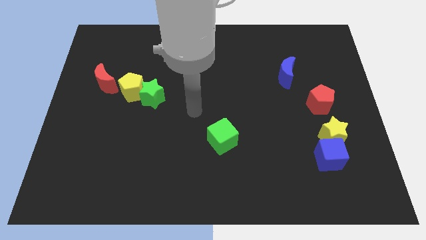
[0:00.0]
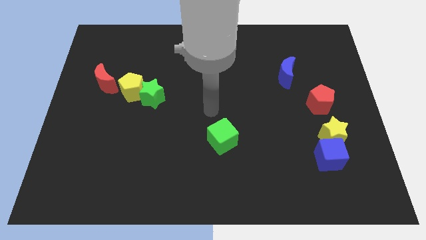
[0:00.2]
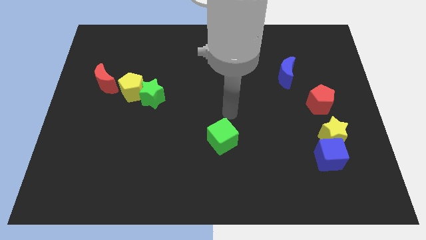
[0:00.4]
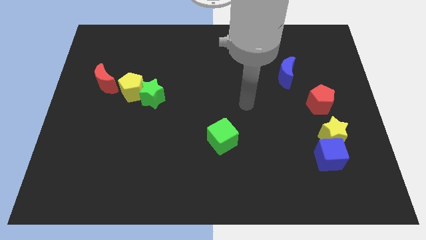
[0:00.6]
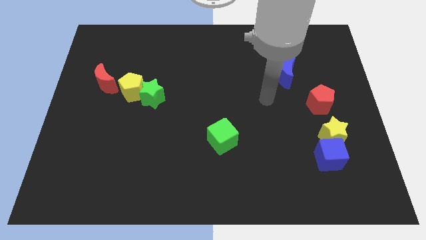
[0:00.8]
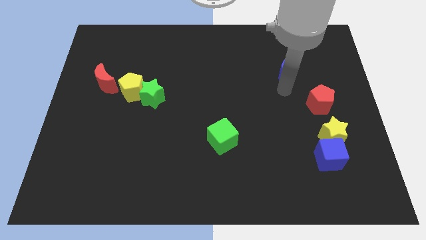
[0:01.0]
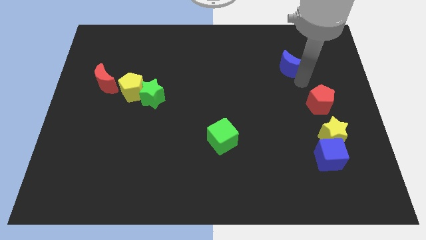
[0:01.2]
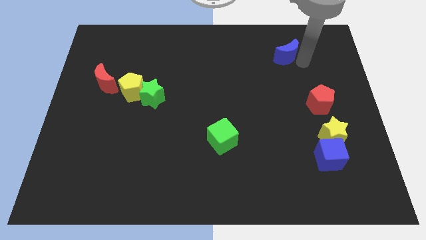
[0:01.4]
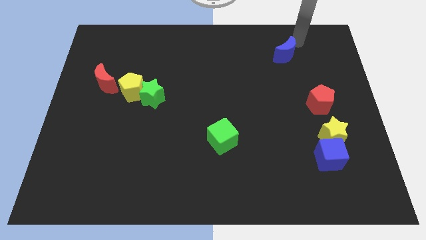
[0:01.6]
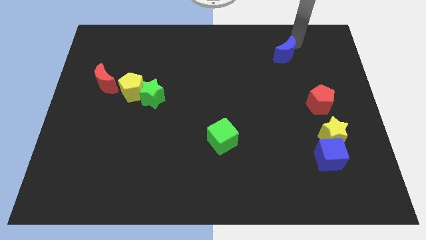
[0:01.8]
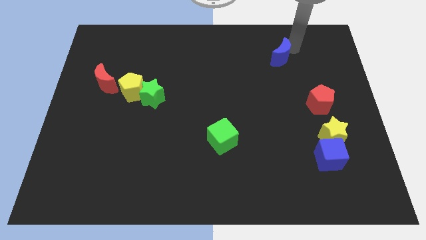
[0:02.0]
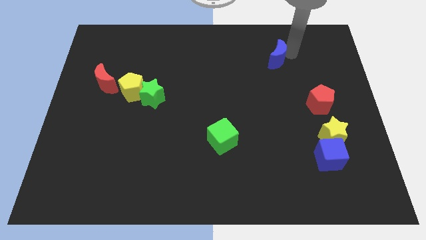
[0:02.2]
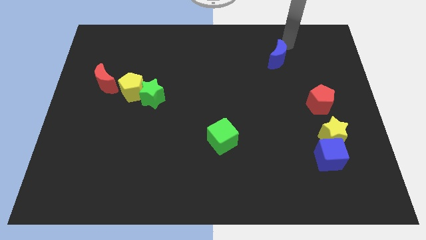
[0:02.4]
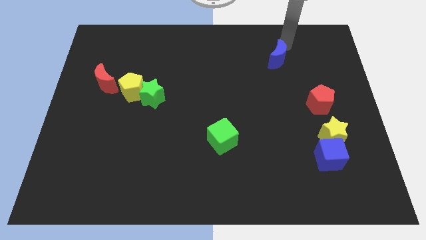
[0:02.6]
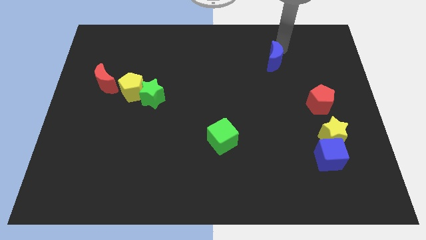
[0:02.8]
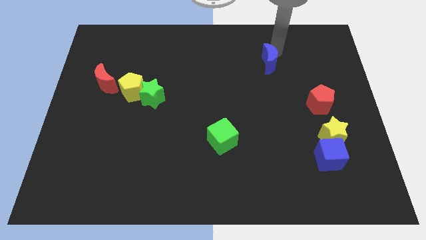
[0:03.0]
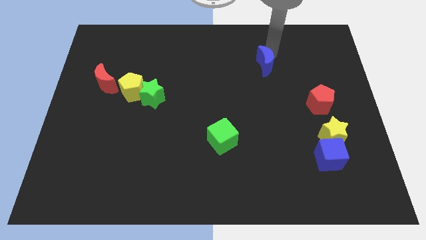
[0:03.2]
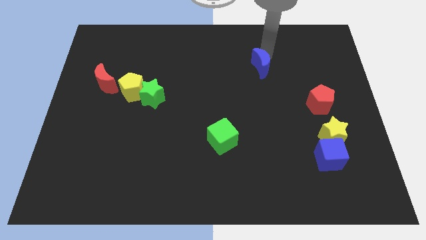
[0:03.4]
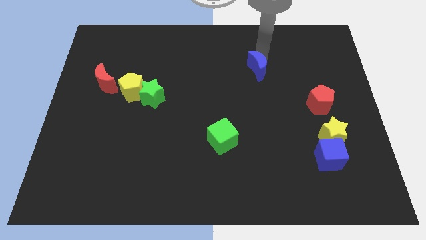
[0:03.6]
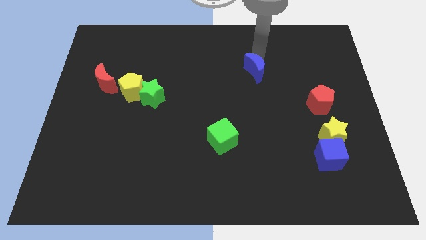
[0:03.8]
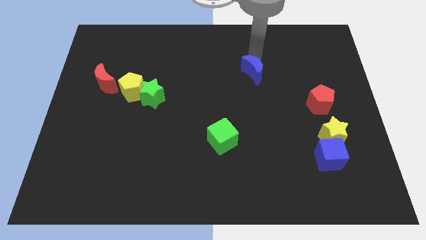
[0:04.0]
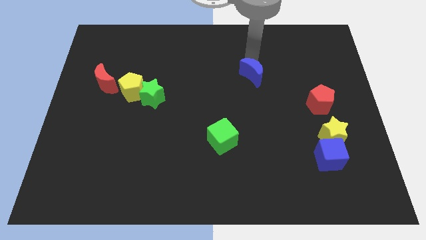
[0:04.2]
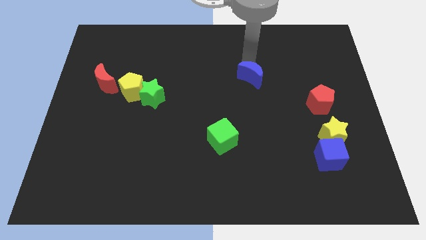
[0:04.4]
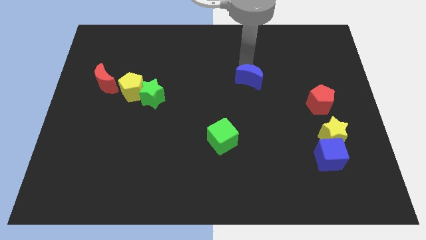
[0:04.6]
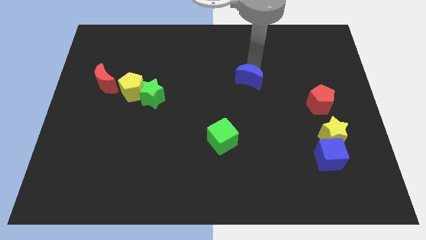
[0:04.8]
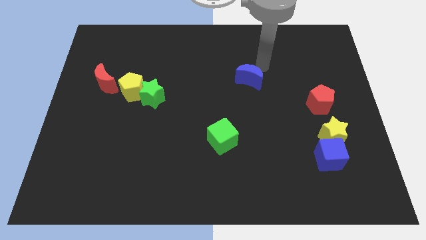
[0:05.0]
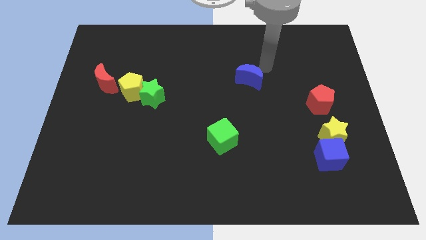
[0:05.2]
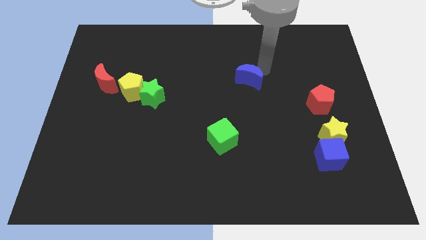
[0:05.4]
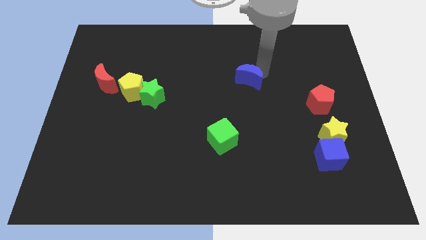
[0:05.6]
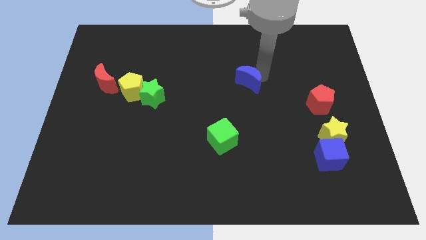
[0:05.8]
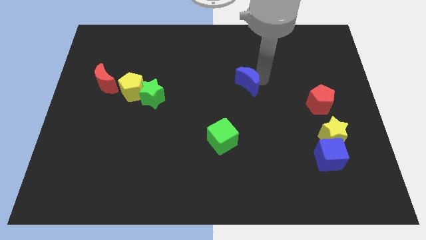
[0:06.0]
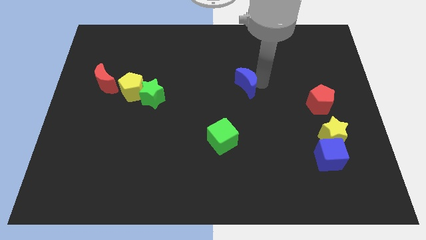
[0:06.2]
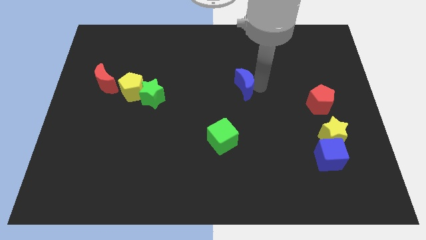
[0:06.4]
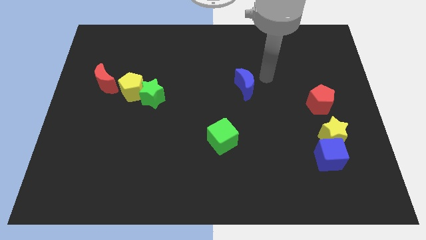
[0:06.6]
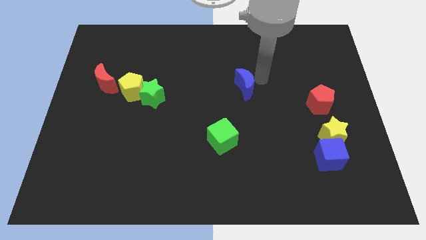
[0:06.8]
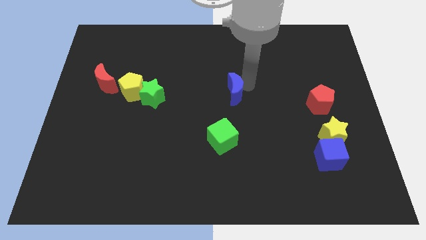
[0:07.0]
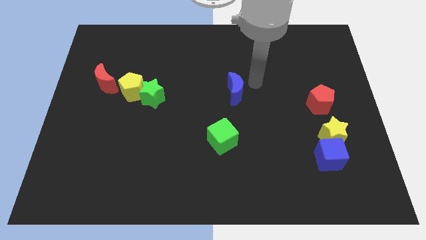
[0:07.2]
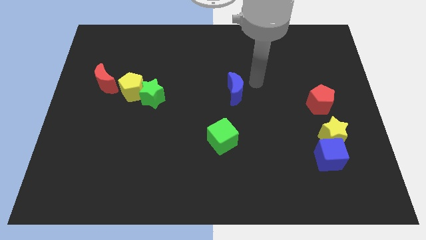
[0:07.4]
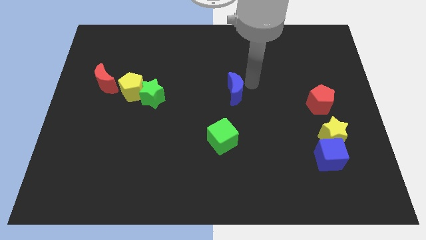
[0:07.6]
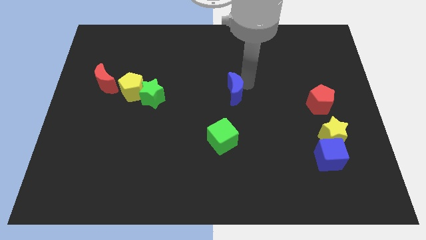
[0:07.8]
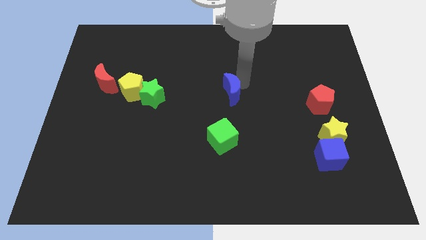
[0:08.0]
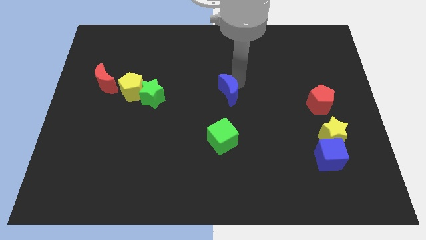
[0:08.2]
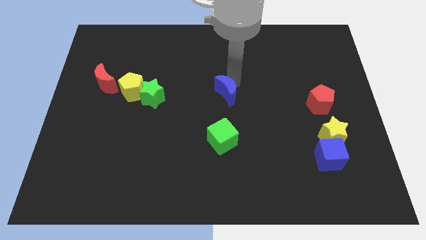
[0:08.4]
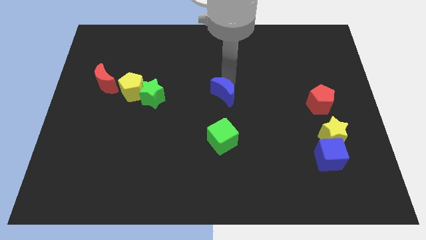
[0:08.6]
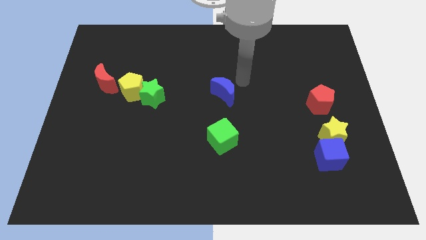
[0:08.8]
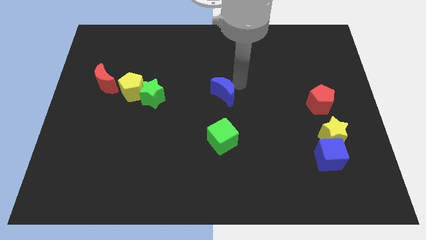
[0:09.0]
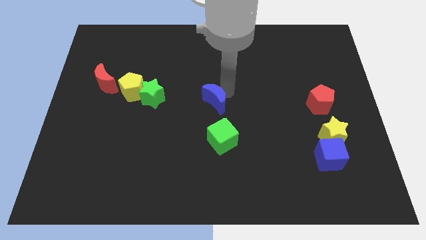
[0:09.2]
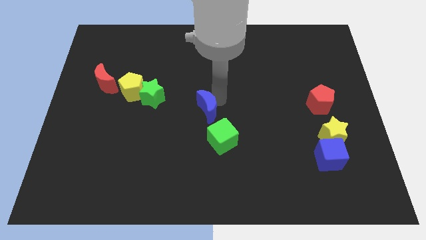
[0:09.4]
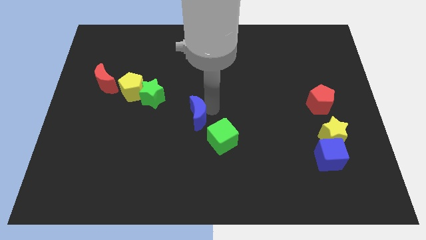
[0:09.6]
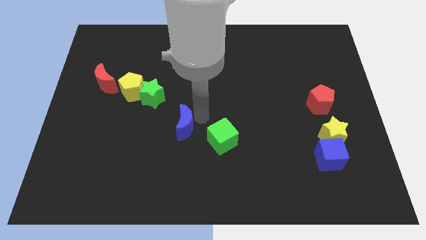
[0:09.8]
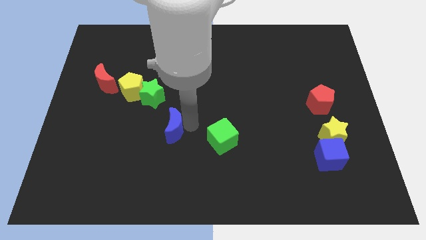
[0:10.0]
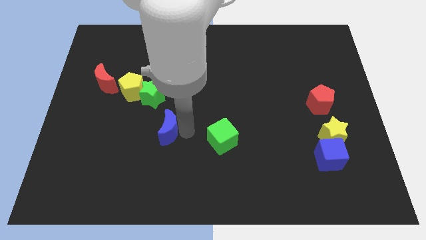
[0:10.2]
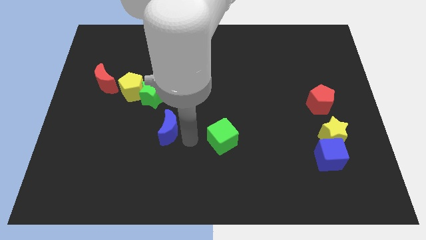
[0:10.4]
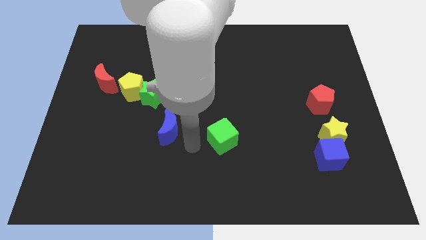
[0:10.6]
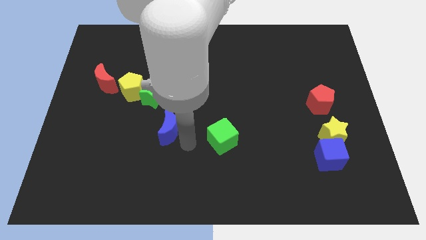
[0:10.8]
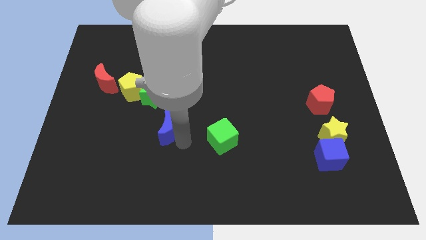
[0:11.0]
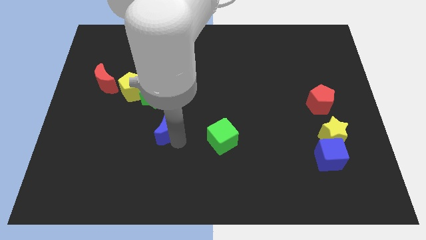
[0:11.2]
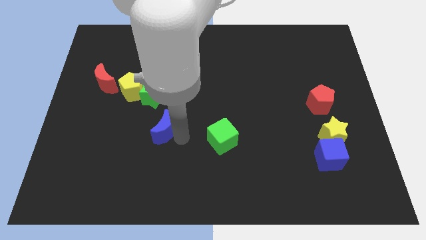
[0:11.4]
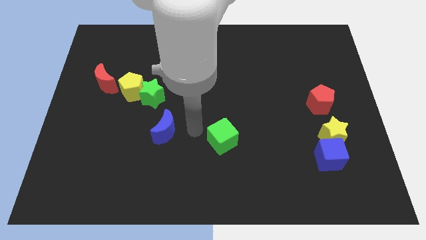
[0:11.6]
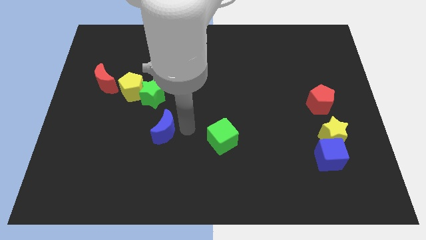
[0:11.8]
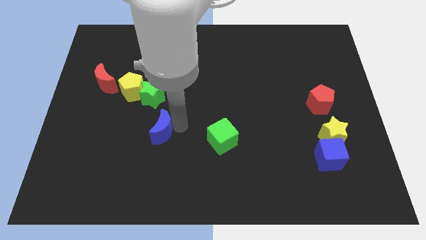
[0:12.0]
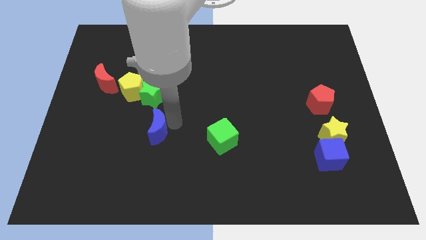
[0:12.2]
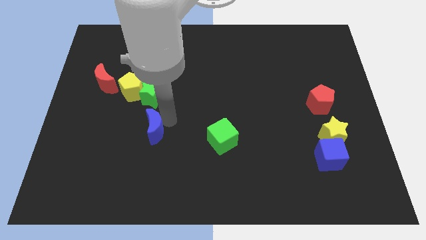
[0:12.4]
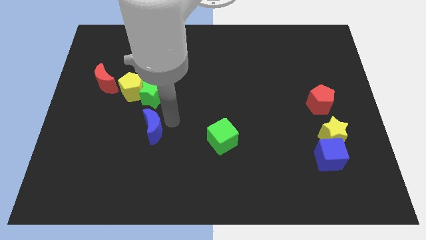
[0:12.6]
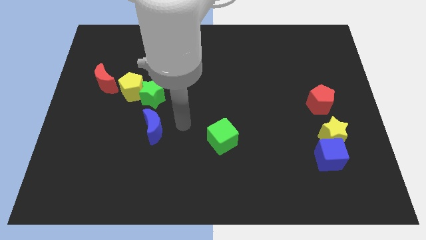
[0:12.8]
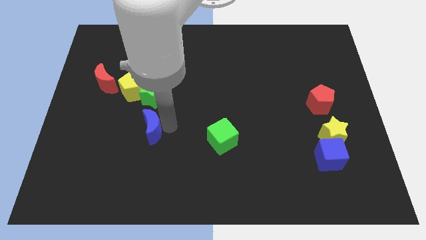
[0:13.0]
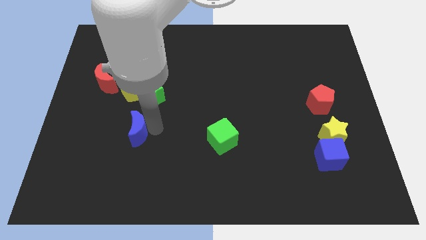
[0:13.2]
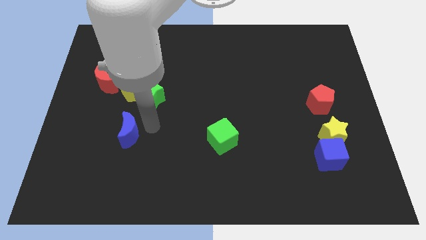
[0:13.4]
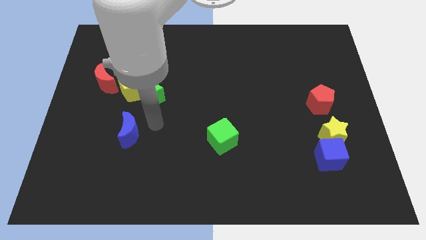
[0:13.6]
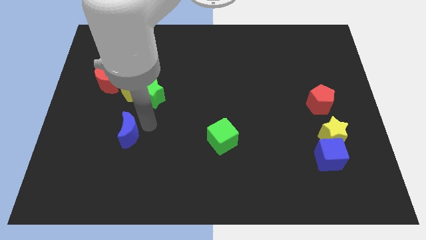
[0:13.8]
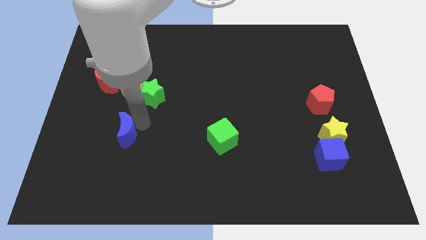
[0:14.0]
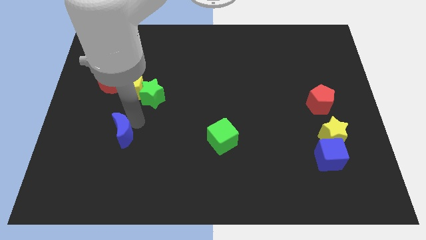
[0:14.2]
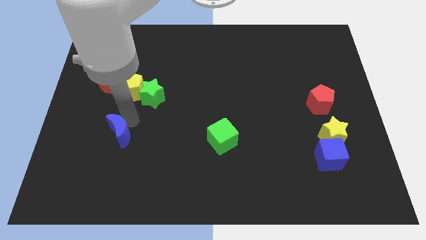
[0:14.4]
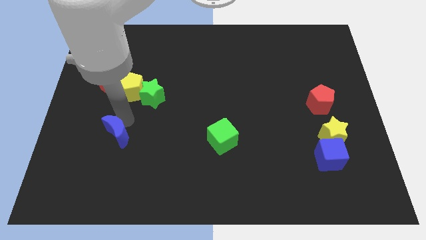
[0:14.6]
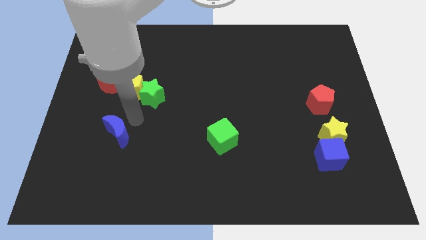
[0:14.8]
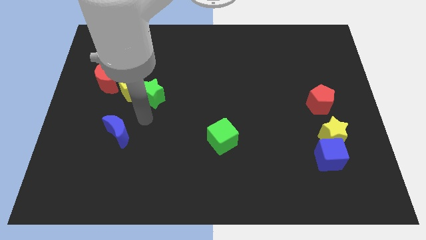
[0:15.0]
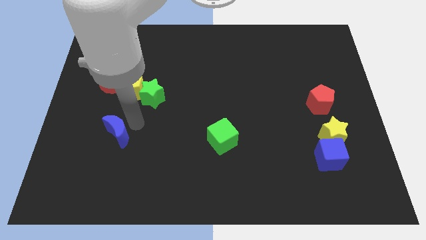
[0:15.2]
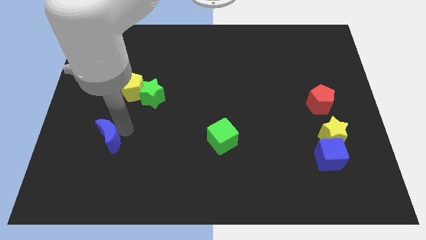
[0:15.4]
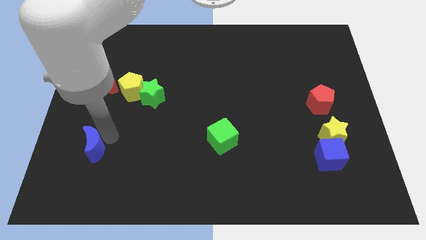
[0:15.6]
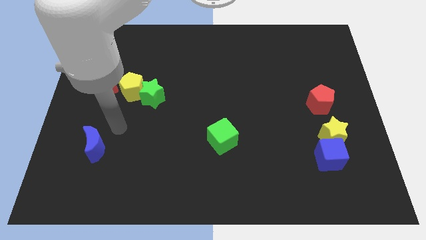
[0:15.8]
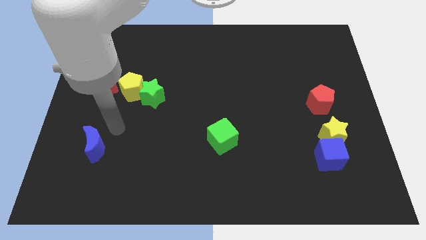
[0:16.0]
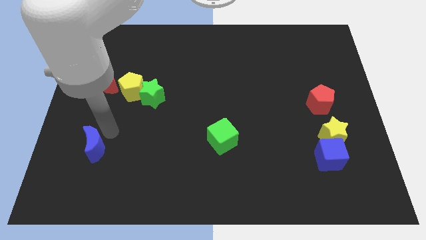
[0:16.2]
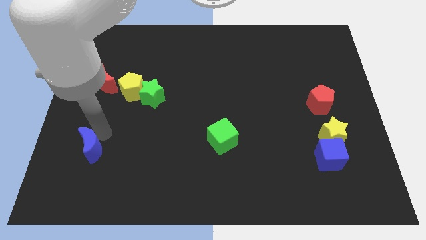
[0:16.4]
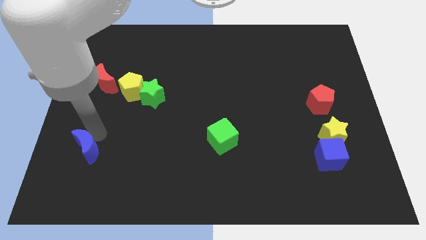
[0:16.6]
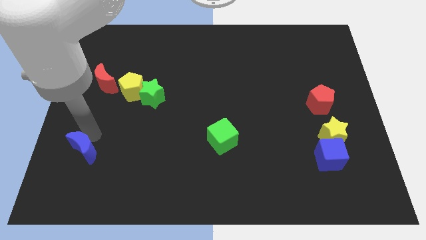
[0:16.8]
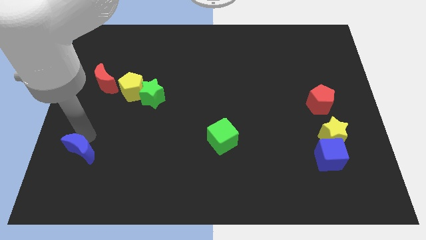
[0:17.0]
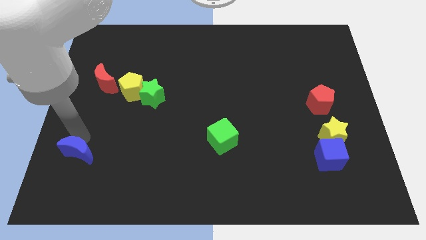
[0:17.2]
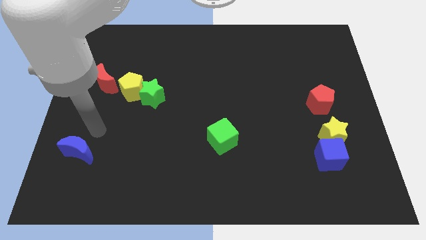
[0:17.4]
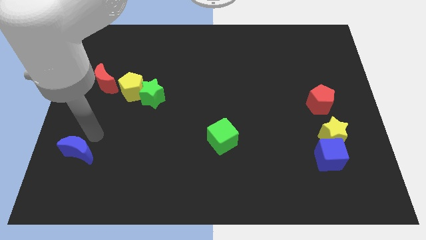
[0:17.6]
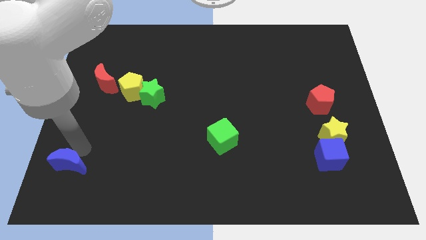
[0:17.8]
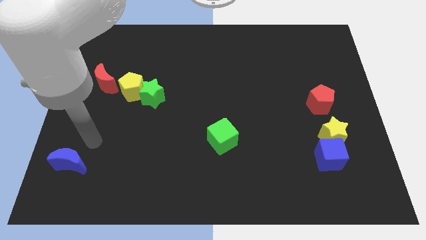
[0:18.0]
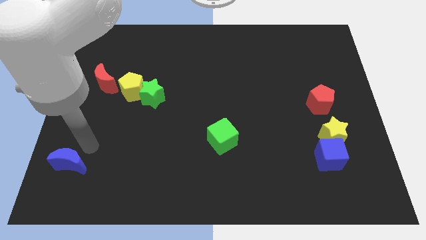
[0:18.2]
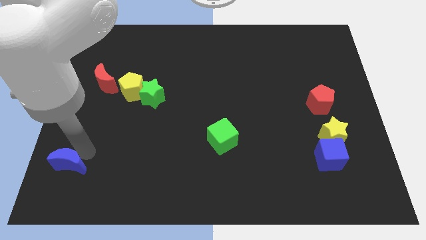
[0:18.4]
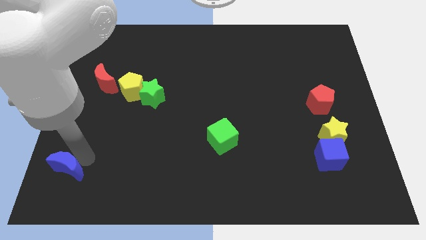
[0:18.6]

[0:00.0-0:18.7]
slide the blue moon to the lower left corner
